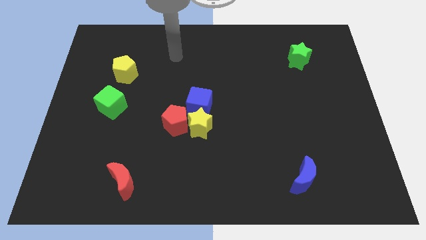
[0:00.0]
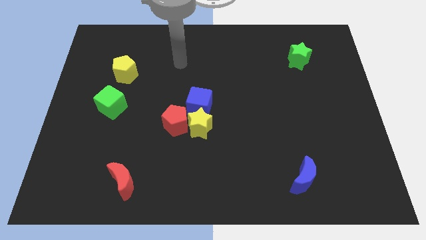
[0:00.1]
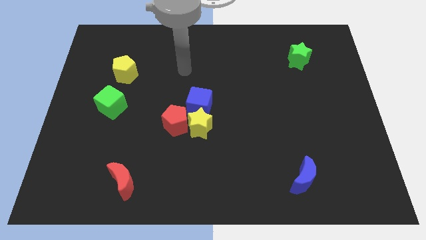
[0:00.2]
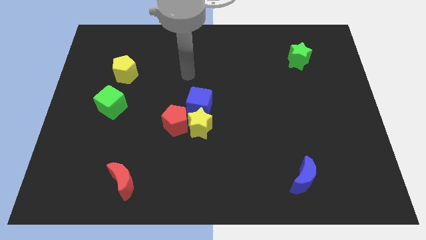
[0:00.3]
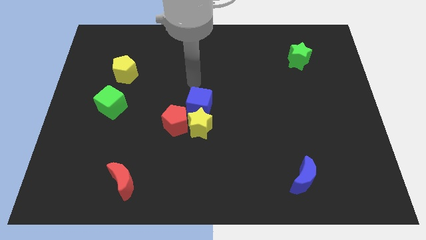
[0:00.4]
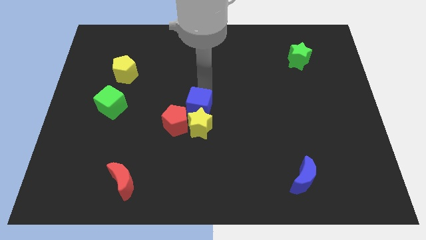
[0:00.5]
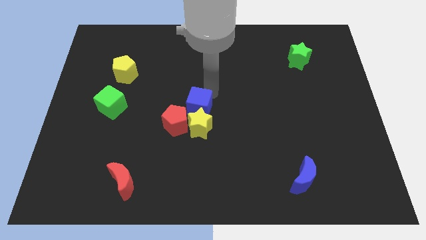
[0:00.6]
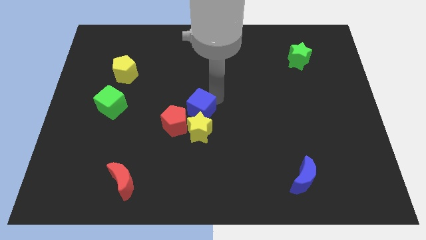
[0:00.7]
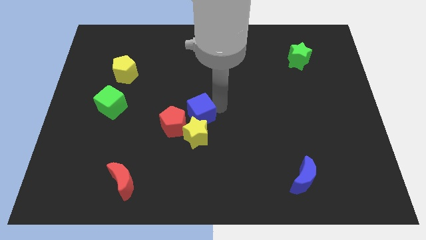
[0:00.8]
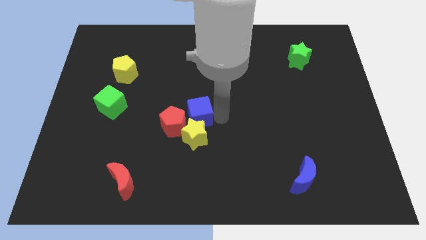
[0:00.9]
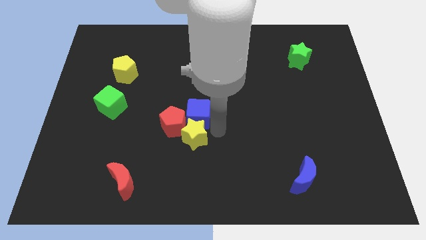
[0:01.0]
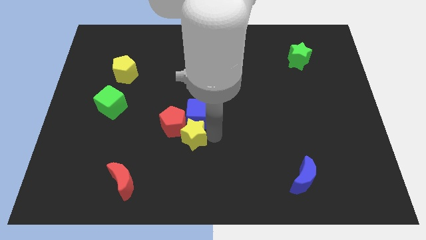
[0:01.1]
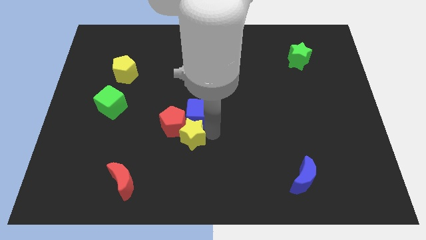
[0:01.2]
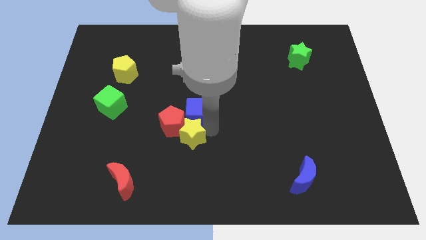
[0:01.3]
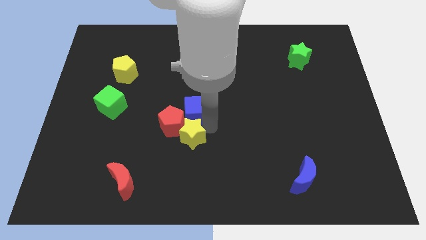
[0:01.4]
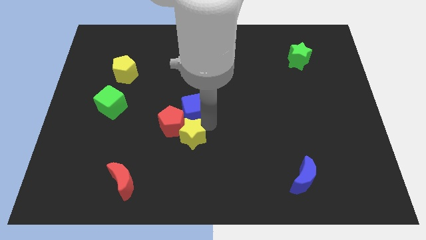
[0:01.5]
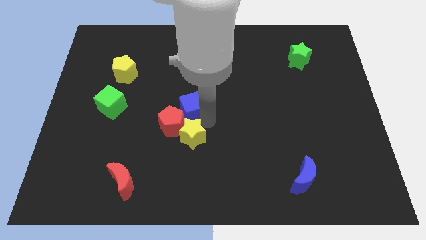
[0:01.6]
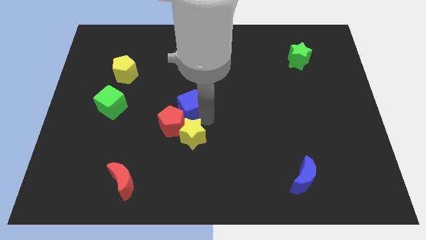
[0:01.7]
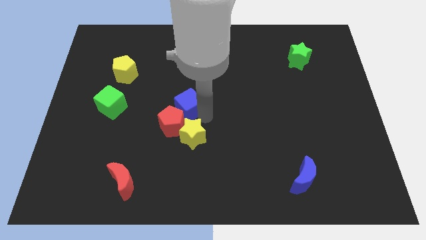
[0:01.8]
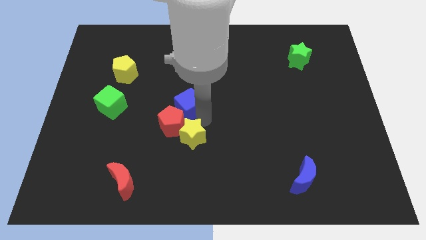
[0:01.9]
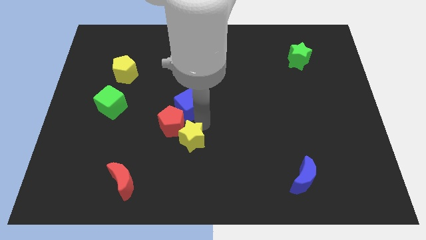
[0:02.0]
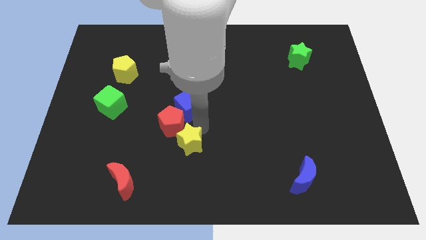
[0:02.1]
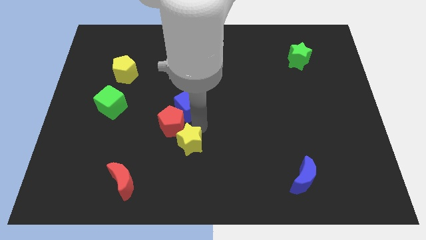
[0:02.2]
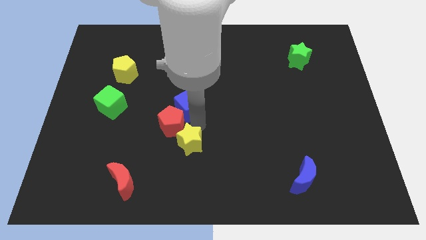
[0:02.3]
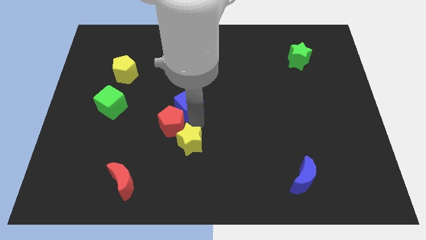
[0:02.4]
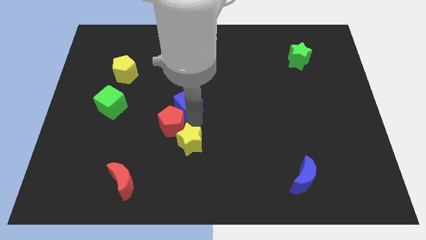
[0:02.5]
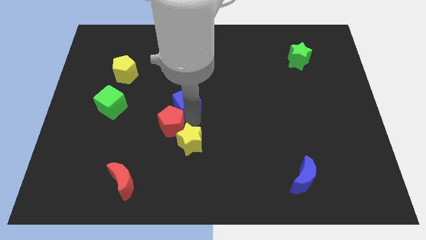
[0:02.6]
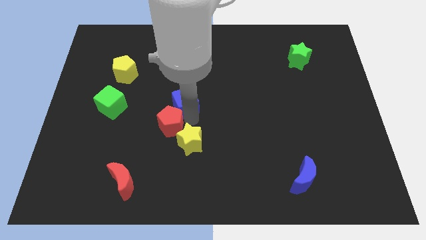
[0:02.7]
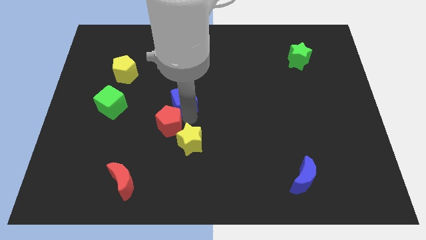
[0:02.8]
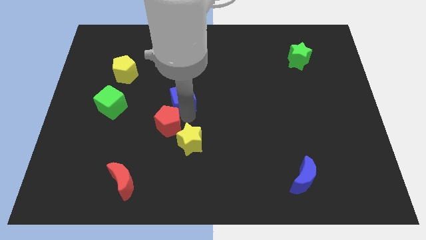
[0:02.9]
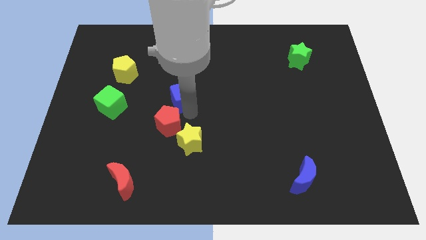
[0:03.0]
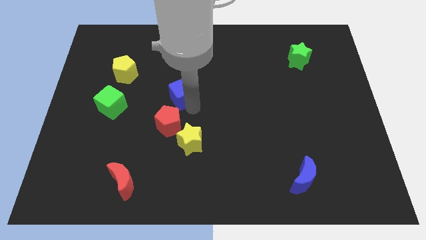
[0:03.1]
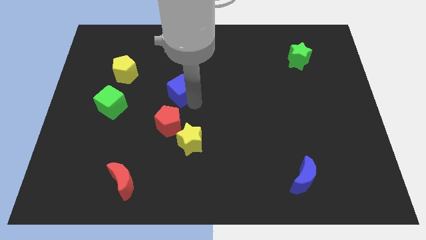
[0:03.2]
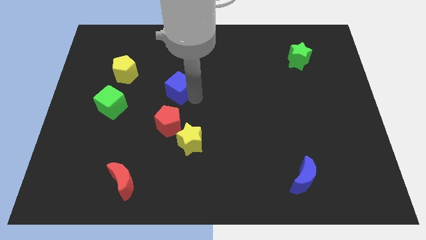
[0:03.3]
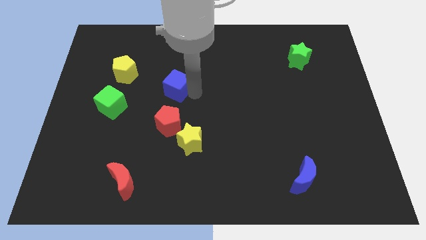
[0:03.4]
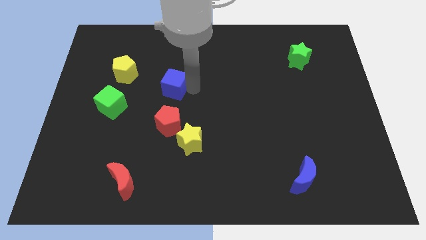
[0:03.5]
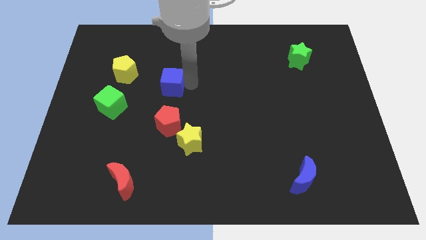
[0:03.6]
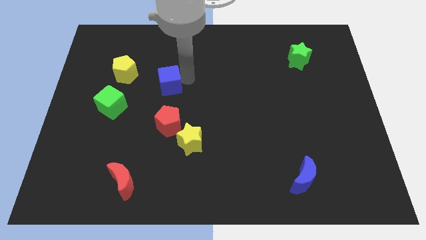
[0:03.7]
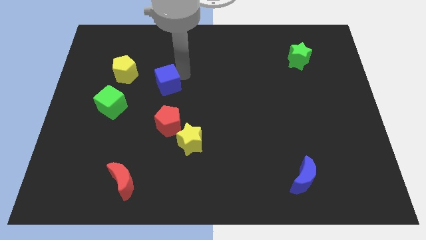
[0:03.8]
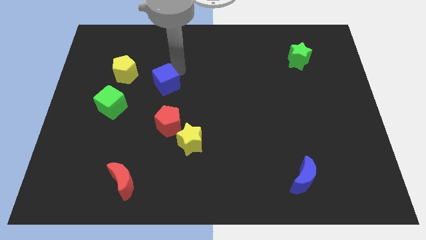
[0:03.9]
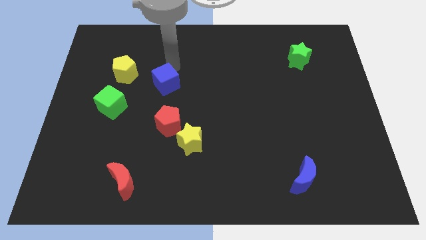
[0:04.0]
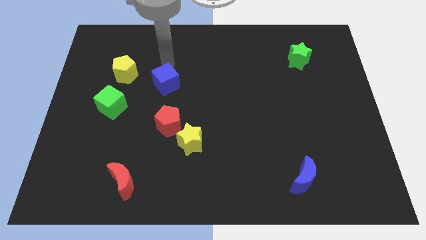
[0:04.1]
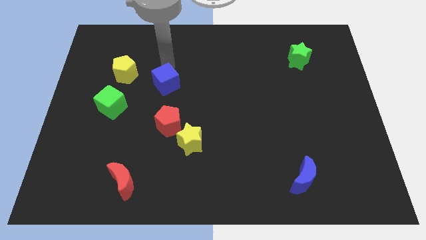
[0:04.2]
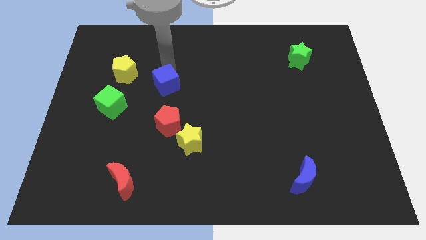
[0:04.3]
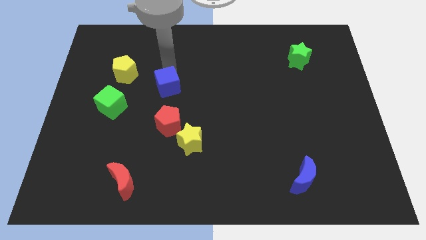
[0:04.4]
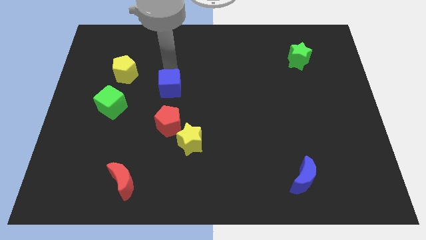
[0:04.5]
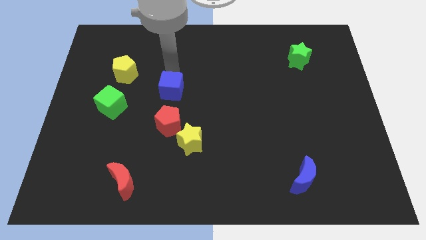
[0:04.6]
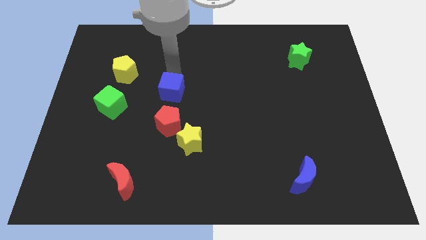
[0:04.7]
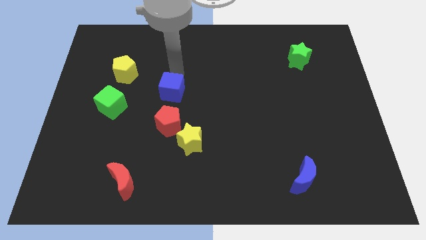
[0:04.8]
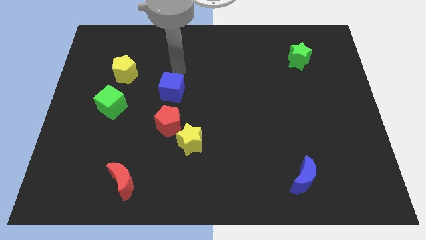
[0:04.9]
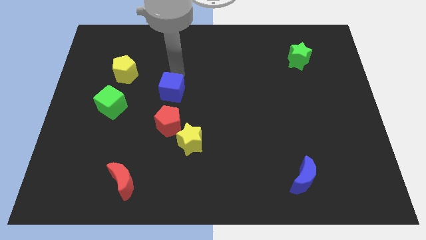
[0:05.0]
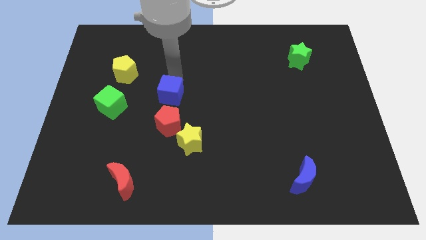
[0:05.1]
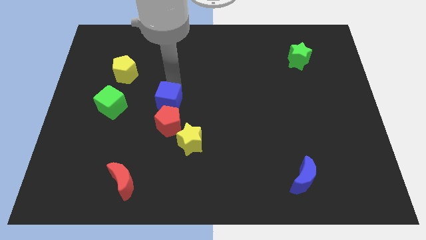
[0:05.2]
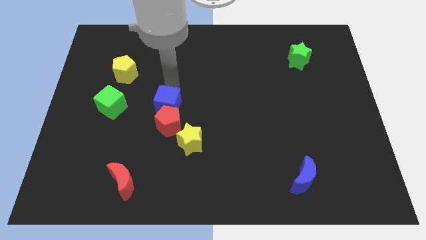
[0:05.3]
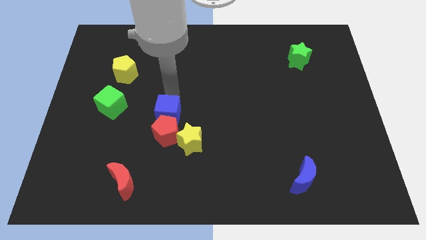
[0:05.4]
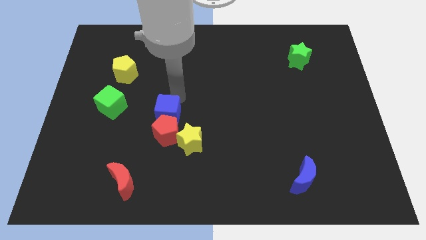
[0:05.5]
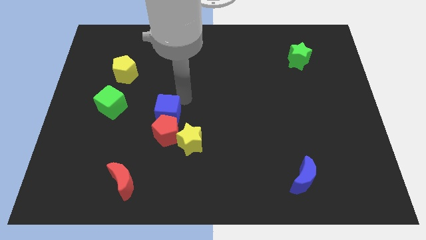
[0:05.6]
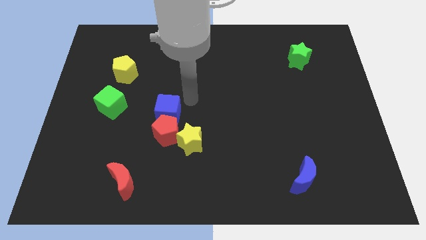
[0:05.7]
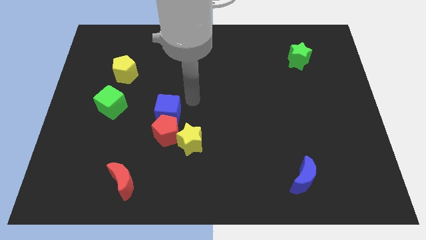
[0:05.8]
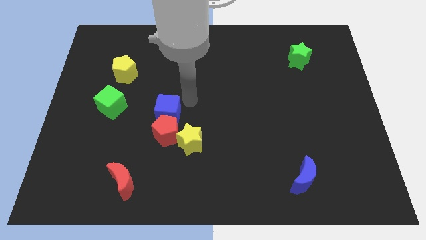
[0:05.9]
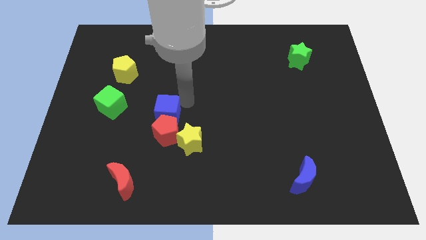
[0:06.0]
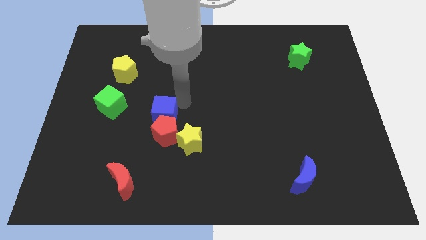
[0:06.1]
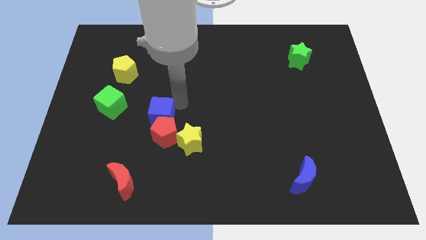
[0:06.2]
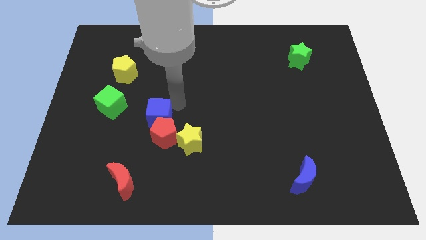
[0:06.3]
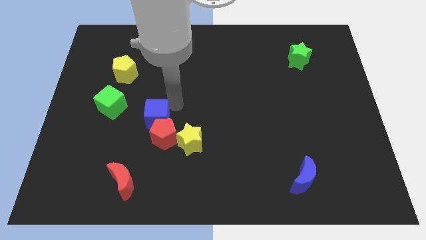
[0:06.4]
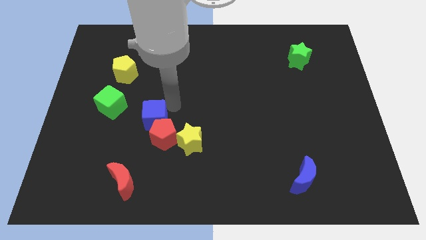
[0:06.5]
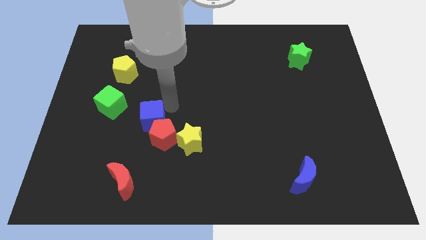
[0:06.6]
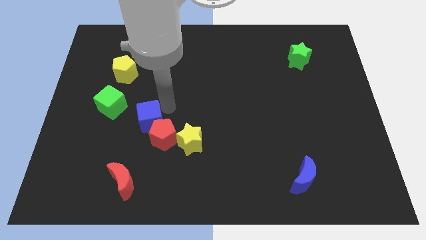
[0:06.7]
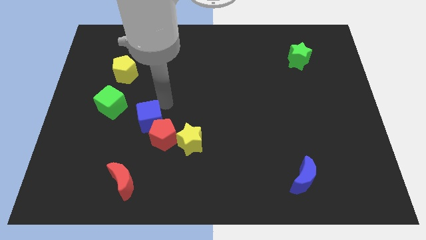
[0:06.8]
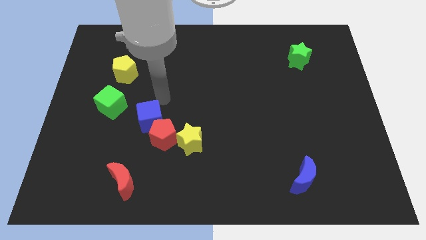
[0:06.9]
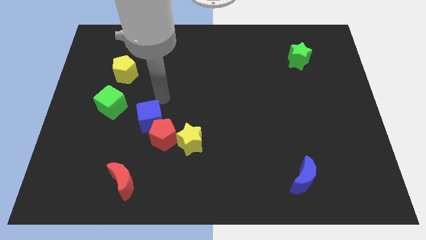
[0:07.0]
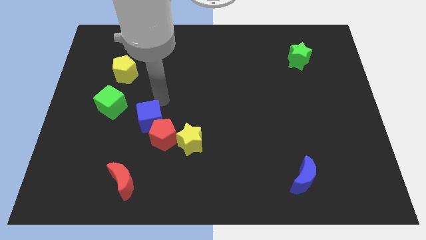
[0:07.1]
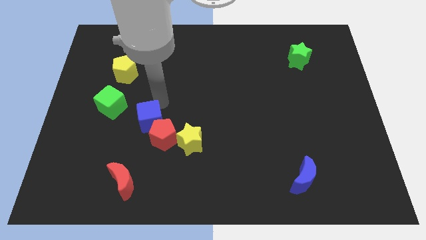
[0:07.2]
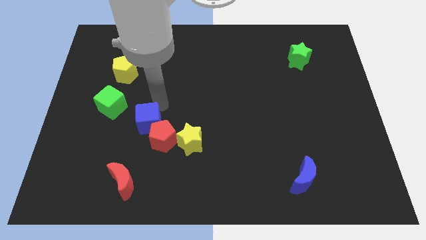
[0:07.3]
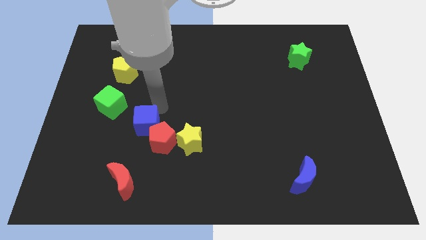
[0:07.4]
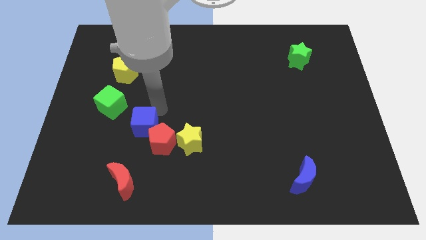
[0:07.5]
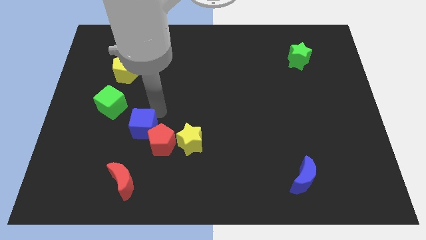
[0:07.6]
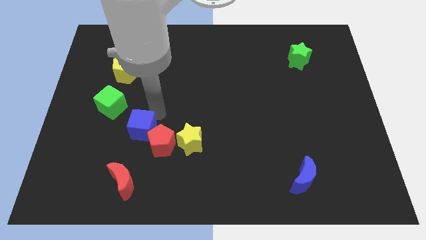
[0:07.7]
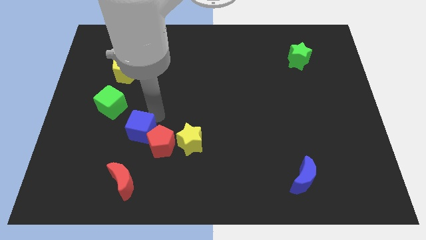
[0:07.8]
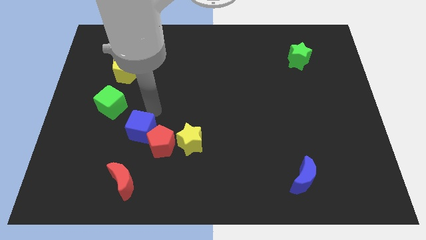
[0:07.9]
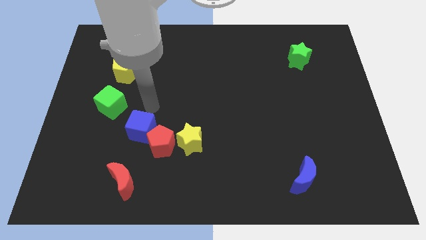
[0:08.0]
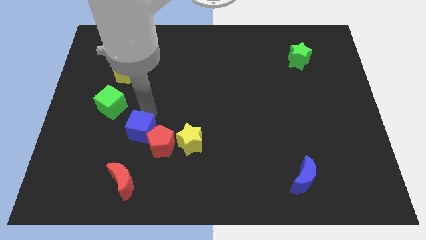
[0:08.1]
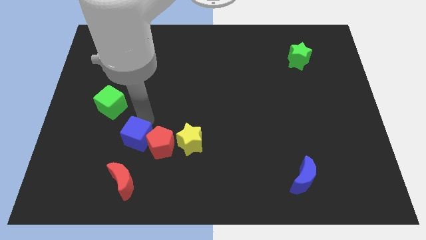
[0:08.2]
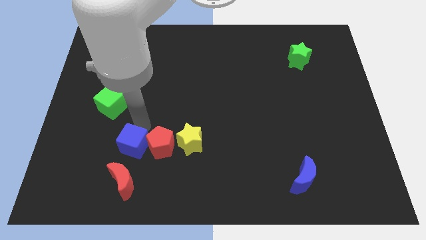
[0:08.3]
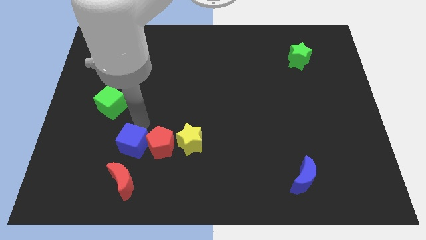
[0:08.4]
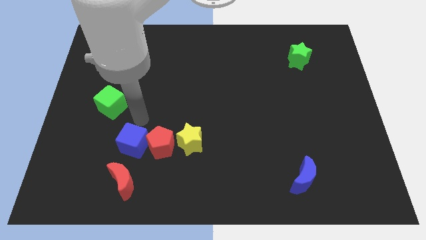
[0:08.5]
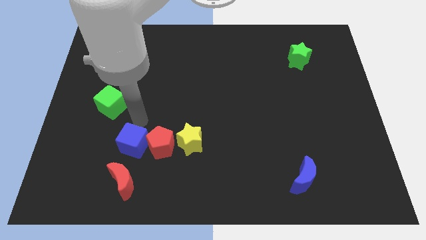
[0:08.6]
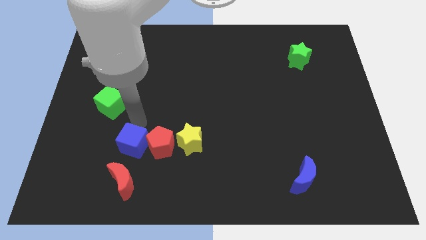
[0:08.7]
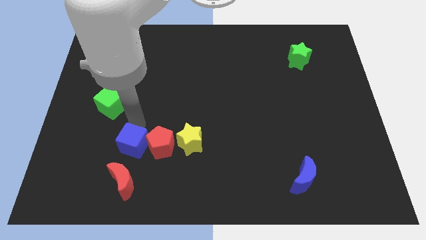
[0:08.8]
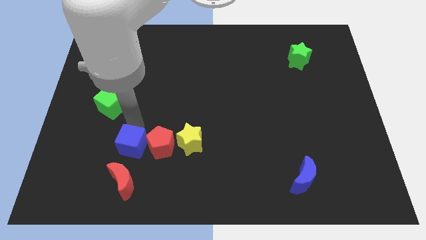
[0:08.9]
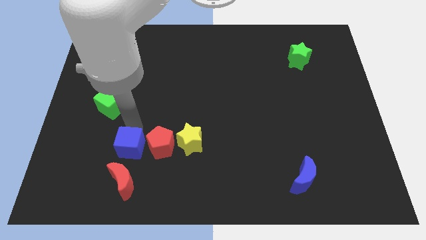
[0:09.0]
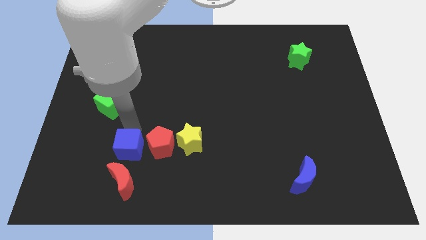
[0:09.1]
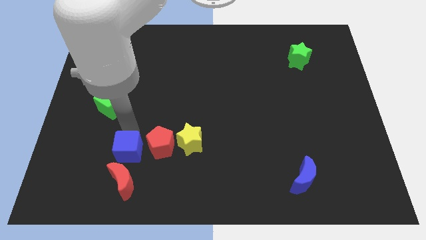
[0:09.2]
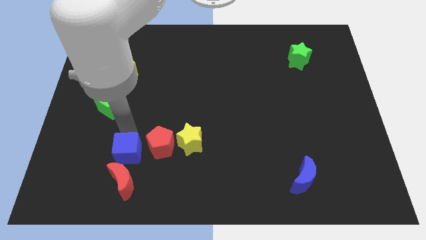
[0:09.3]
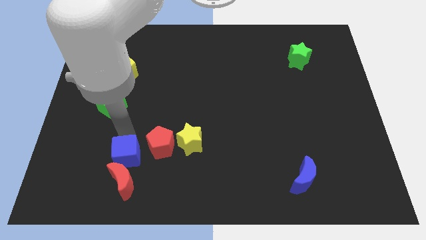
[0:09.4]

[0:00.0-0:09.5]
push the blue cube towards the red moon
